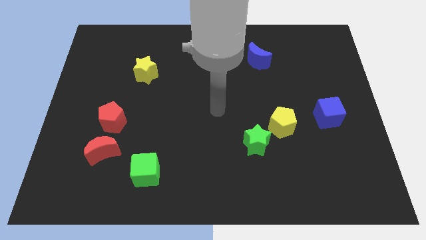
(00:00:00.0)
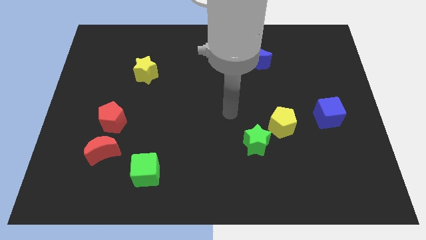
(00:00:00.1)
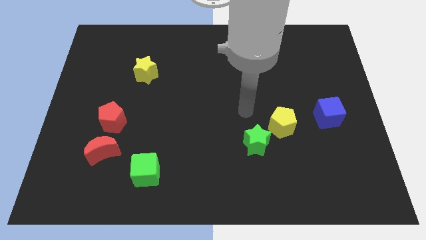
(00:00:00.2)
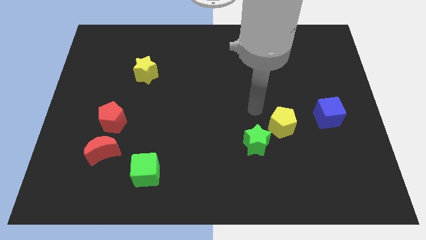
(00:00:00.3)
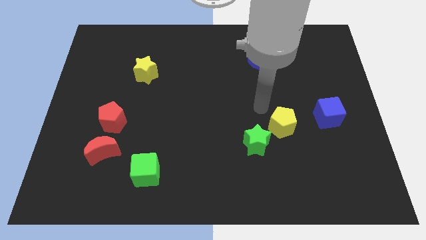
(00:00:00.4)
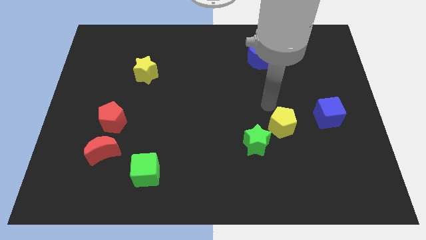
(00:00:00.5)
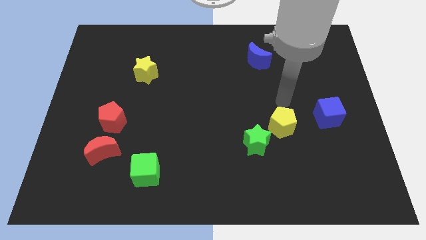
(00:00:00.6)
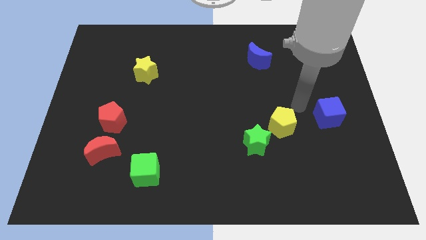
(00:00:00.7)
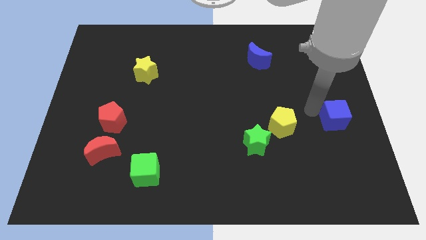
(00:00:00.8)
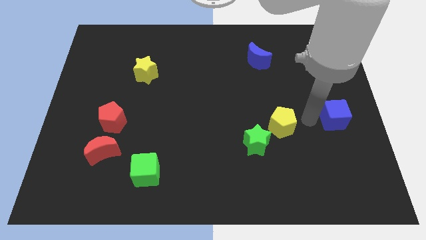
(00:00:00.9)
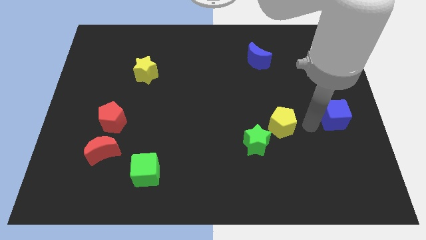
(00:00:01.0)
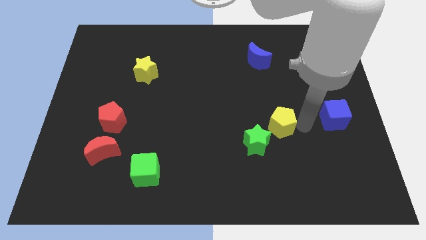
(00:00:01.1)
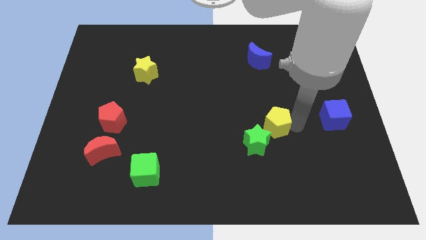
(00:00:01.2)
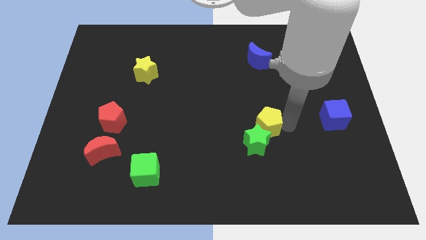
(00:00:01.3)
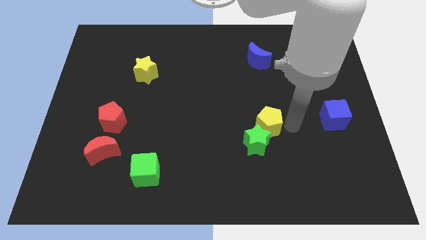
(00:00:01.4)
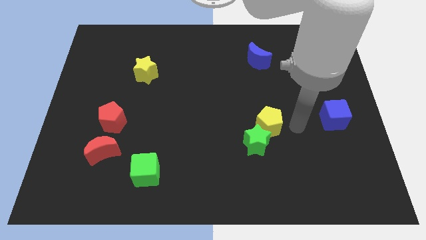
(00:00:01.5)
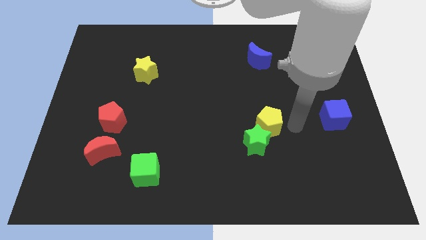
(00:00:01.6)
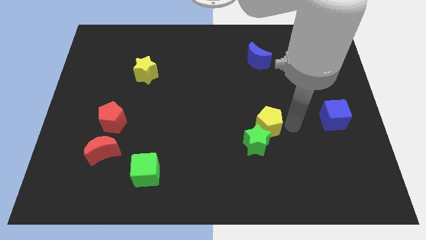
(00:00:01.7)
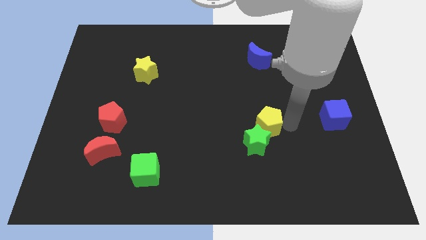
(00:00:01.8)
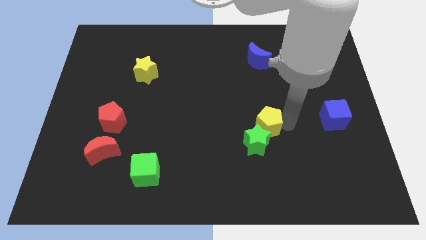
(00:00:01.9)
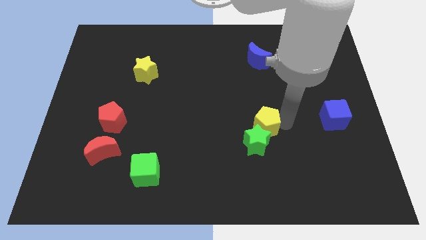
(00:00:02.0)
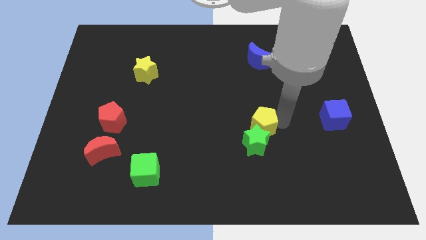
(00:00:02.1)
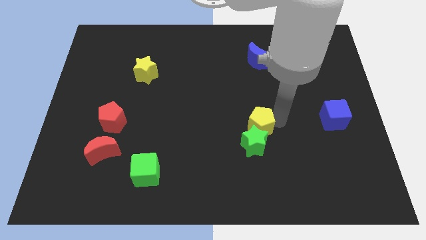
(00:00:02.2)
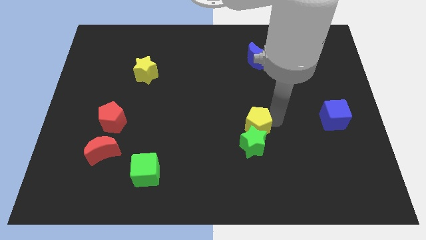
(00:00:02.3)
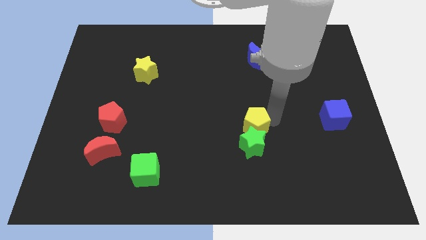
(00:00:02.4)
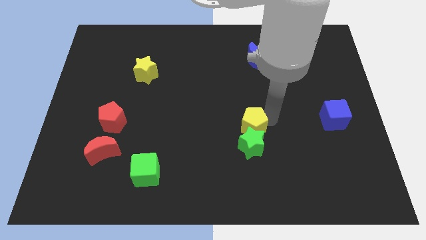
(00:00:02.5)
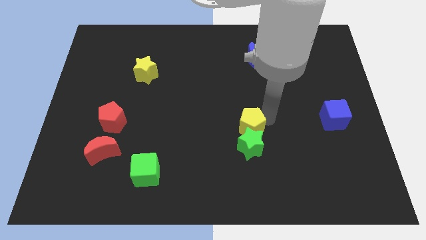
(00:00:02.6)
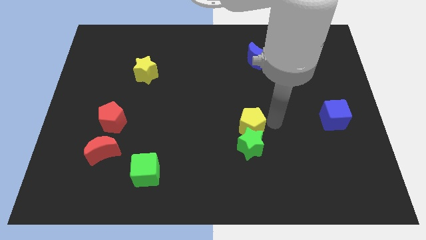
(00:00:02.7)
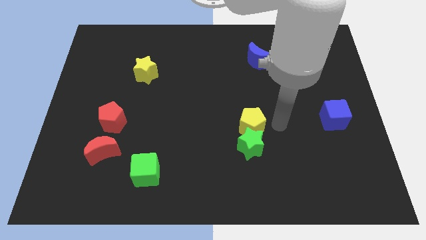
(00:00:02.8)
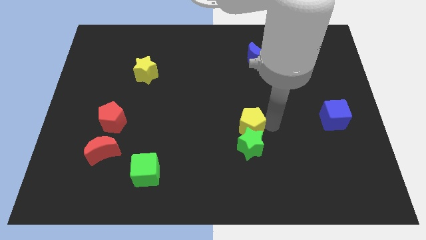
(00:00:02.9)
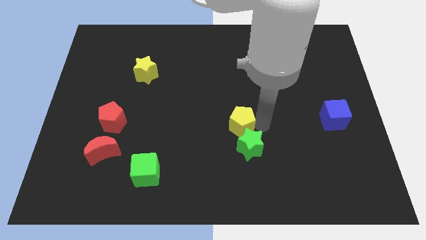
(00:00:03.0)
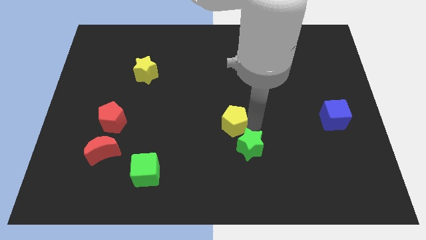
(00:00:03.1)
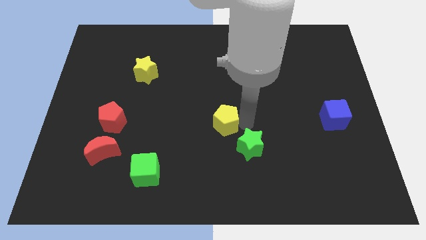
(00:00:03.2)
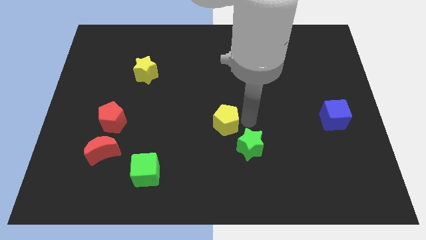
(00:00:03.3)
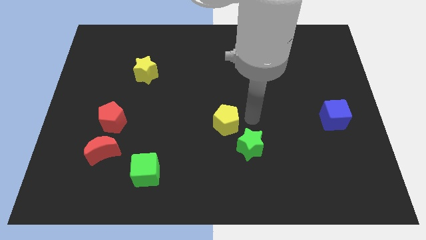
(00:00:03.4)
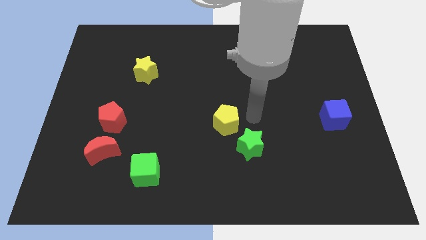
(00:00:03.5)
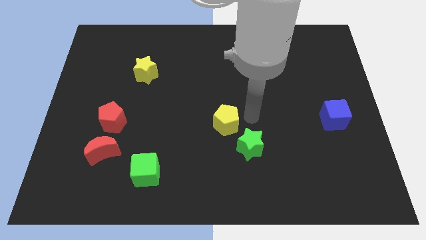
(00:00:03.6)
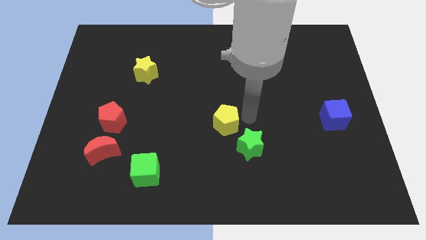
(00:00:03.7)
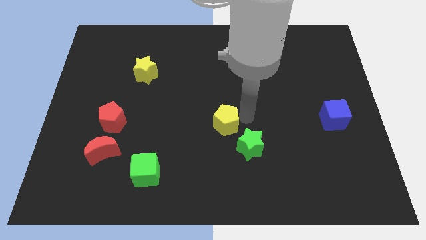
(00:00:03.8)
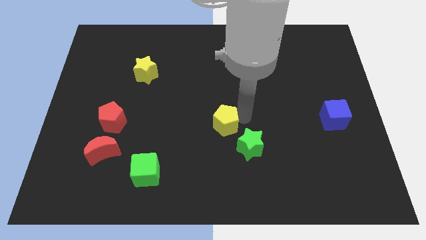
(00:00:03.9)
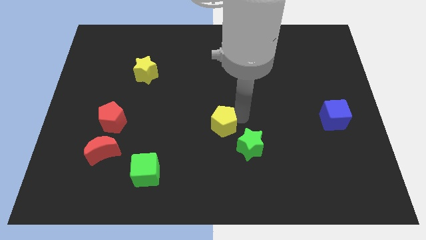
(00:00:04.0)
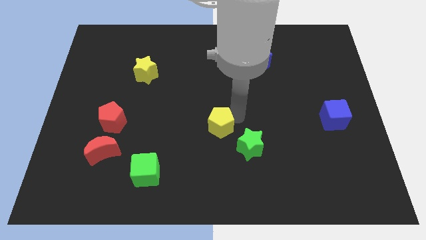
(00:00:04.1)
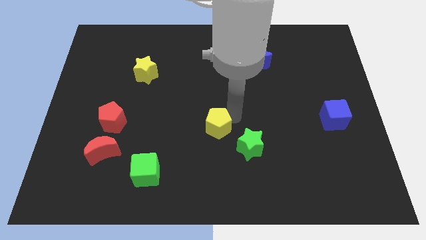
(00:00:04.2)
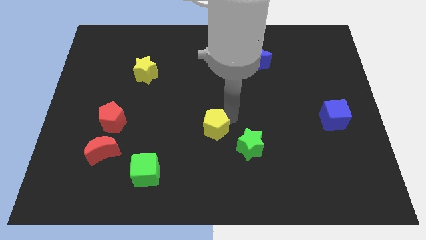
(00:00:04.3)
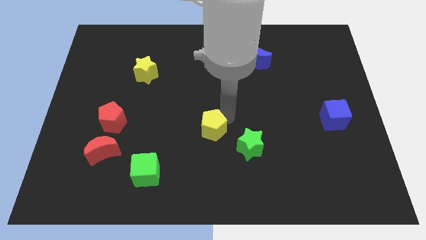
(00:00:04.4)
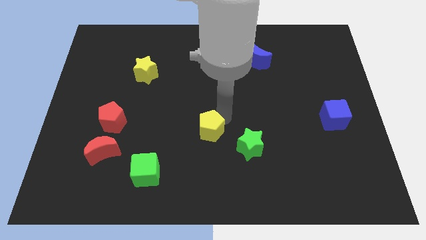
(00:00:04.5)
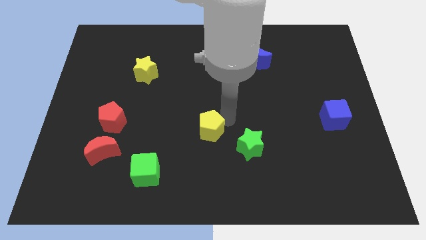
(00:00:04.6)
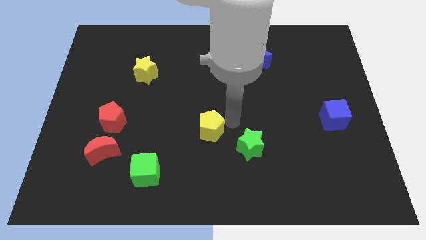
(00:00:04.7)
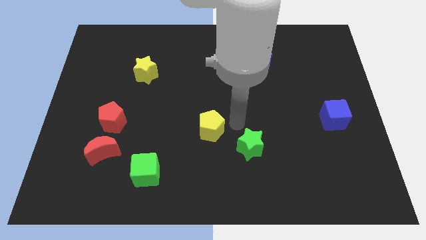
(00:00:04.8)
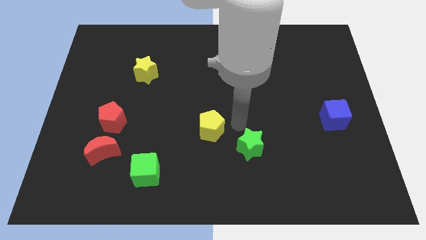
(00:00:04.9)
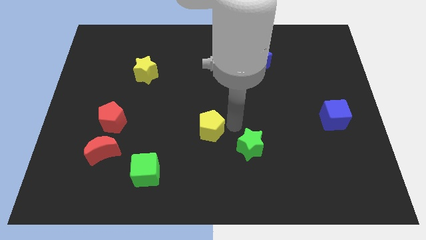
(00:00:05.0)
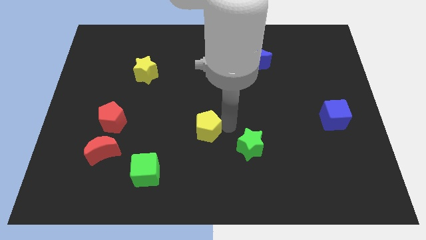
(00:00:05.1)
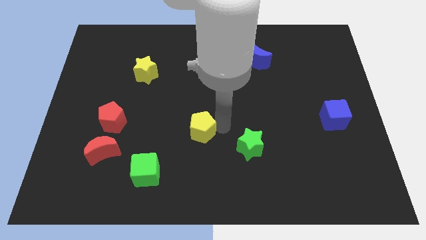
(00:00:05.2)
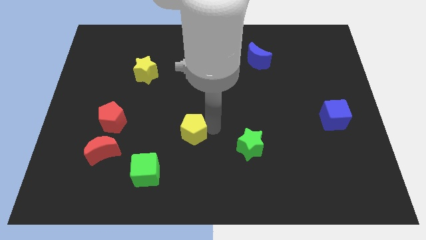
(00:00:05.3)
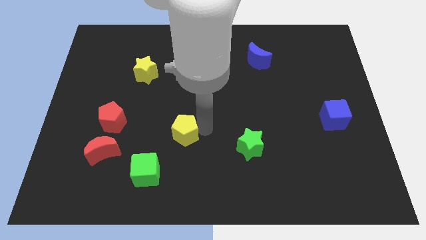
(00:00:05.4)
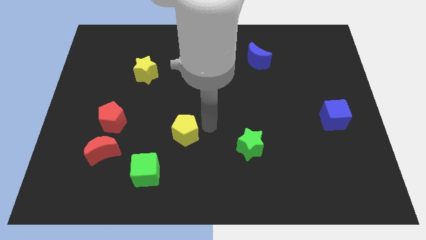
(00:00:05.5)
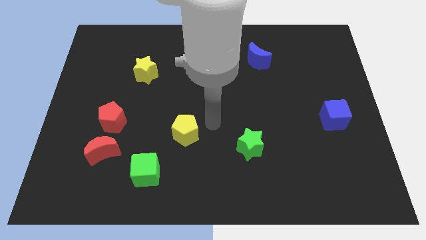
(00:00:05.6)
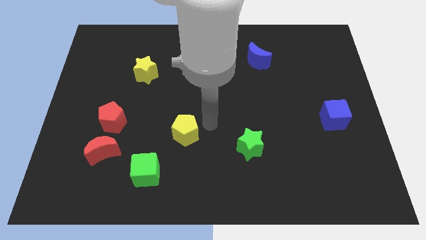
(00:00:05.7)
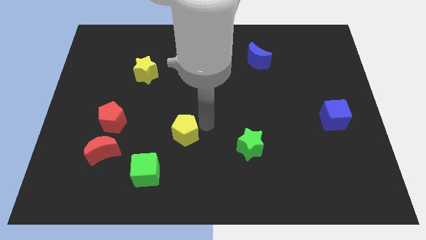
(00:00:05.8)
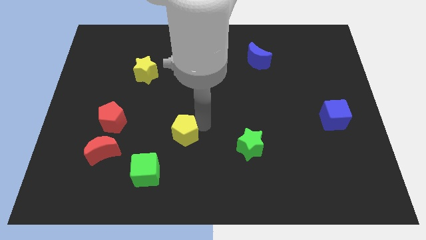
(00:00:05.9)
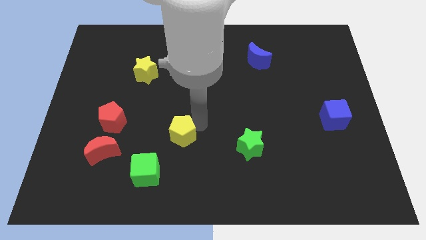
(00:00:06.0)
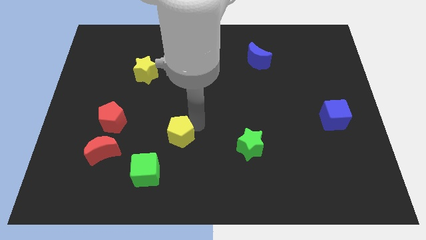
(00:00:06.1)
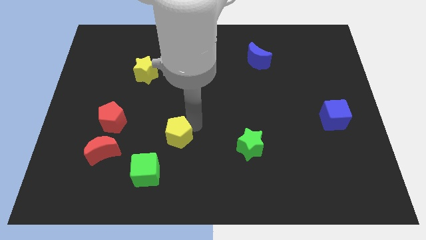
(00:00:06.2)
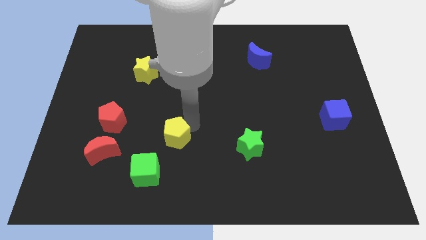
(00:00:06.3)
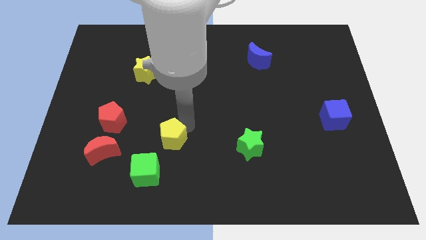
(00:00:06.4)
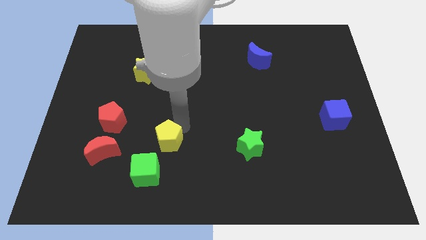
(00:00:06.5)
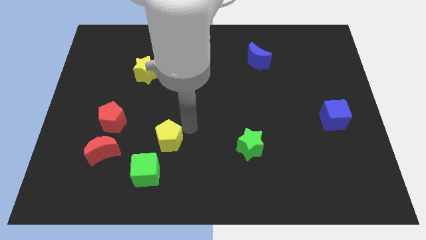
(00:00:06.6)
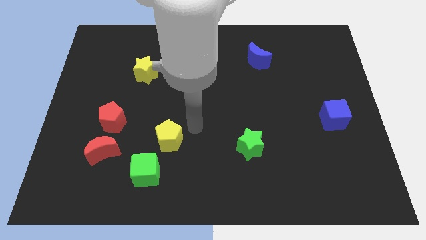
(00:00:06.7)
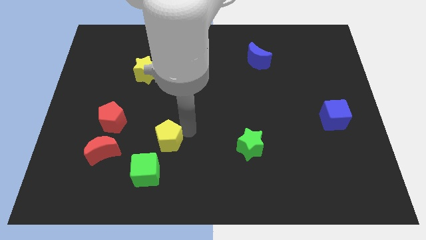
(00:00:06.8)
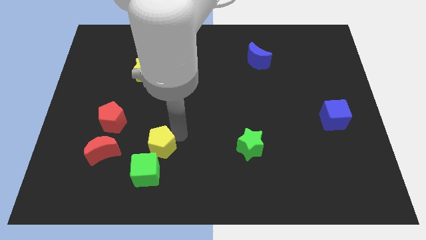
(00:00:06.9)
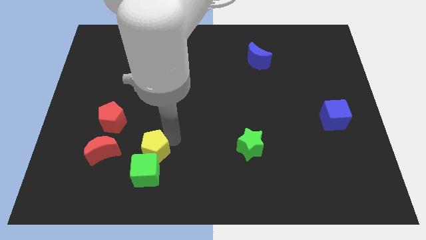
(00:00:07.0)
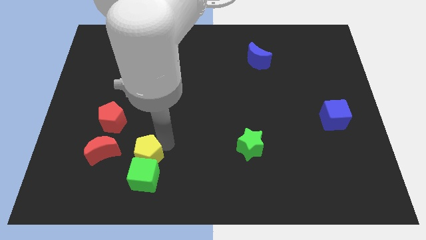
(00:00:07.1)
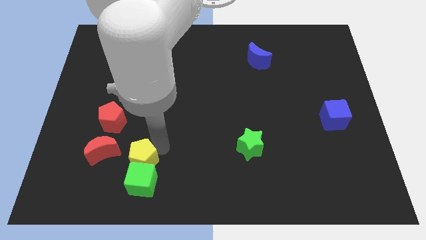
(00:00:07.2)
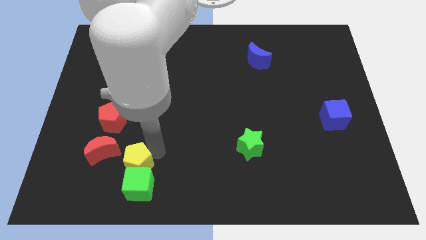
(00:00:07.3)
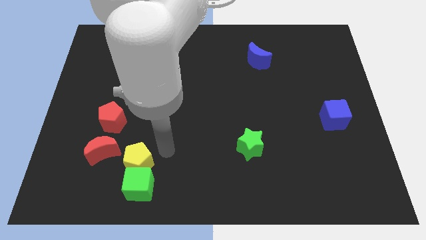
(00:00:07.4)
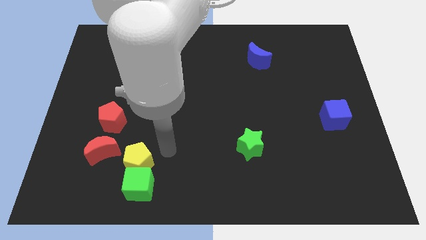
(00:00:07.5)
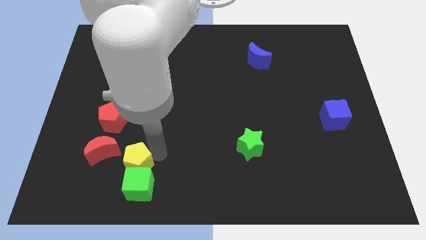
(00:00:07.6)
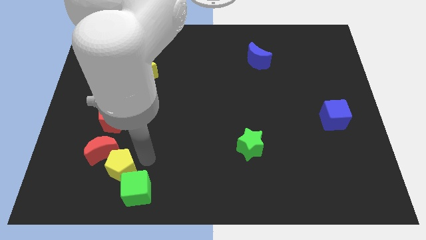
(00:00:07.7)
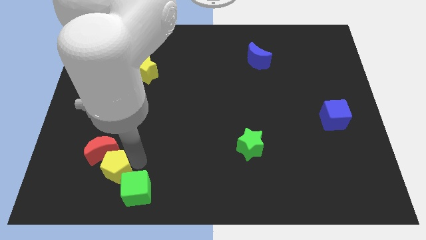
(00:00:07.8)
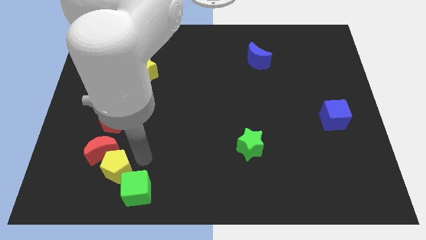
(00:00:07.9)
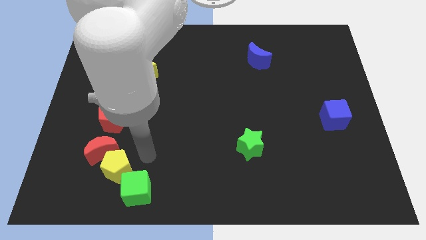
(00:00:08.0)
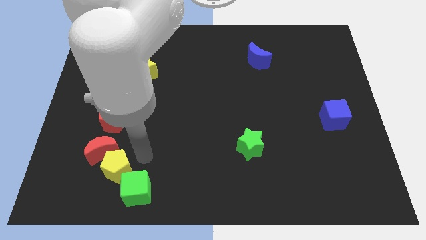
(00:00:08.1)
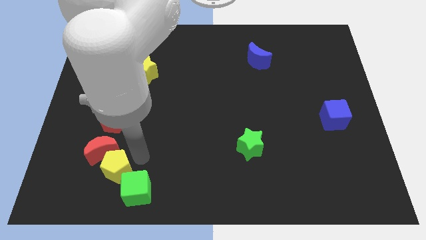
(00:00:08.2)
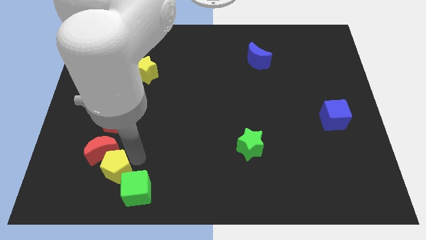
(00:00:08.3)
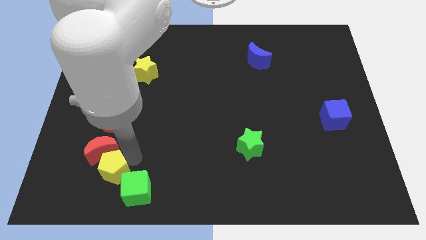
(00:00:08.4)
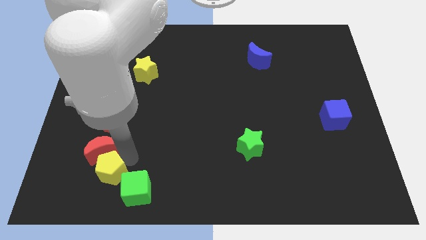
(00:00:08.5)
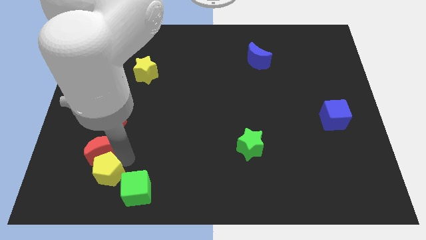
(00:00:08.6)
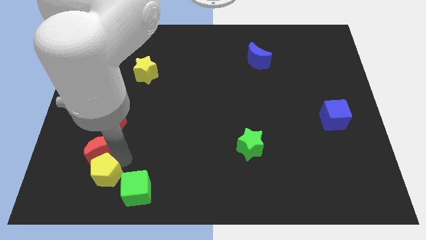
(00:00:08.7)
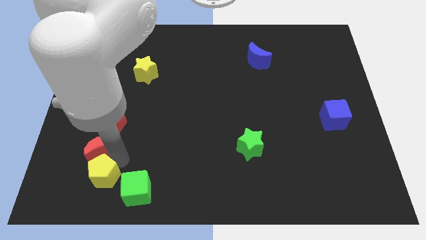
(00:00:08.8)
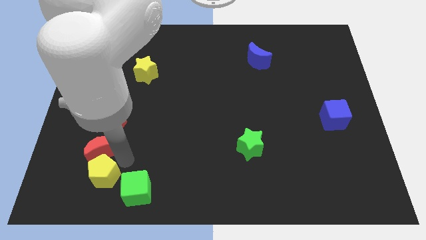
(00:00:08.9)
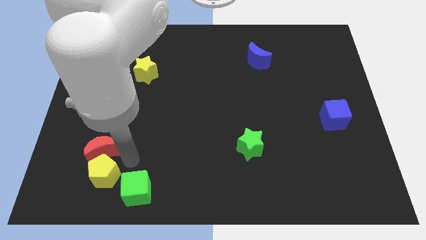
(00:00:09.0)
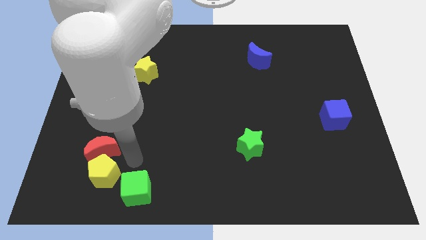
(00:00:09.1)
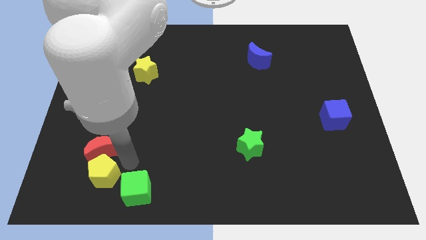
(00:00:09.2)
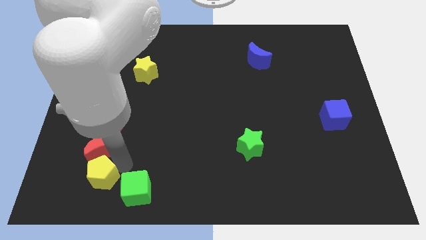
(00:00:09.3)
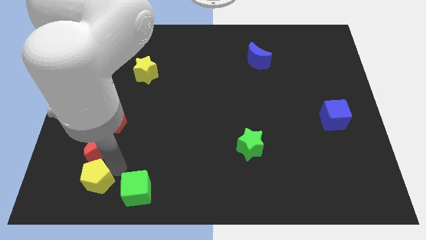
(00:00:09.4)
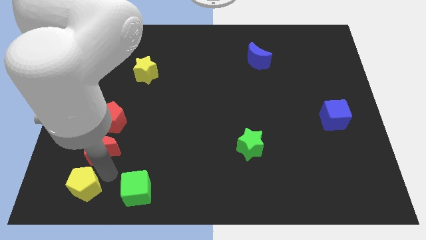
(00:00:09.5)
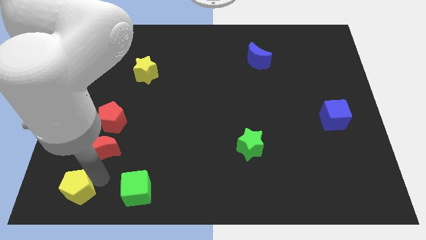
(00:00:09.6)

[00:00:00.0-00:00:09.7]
put the yellow pentagon to the lower left corner
